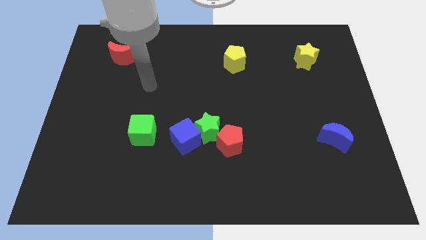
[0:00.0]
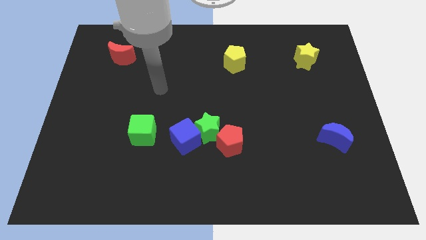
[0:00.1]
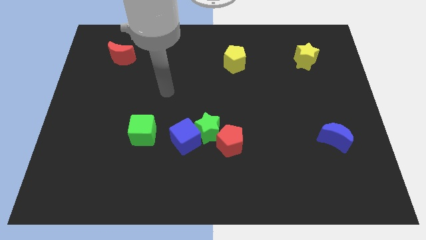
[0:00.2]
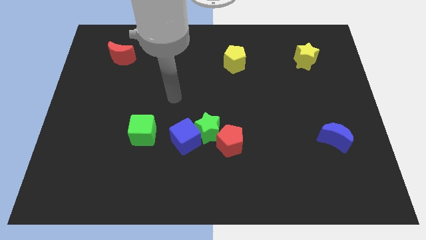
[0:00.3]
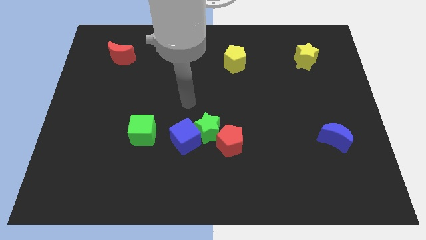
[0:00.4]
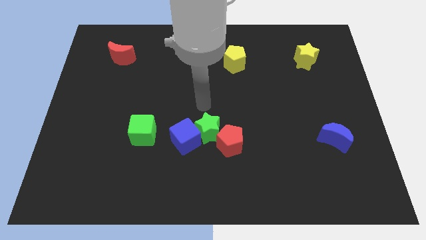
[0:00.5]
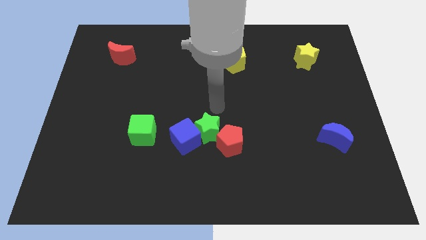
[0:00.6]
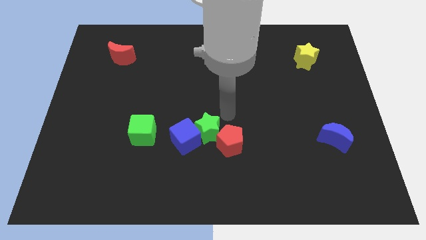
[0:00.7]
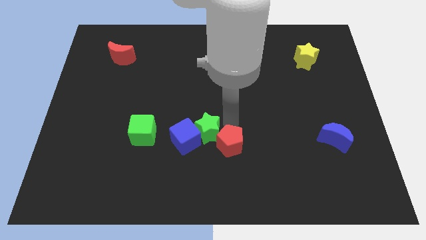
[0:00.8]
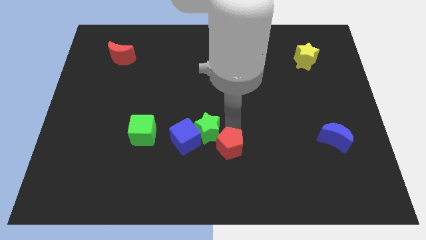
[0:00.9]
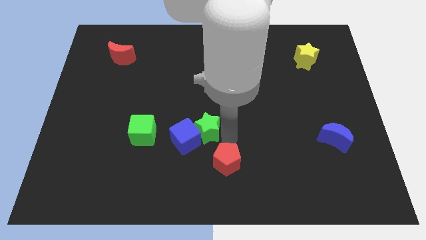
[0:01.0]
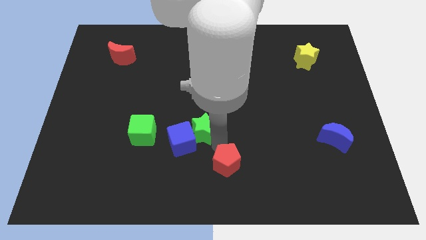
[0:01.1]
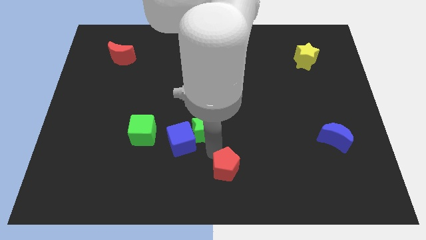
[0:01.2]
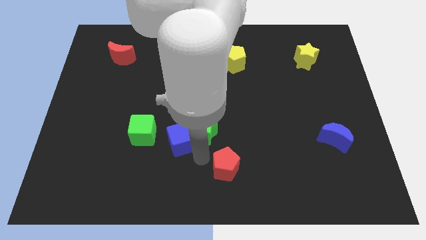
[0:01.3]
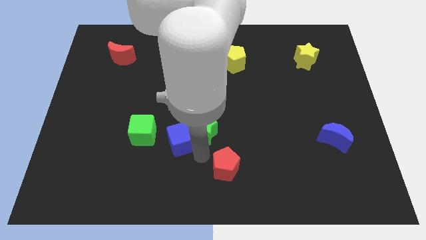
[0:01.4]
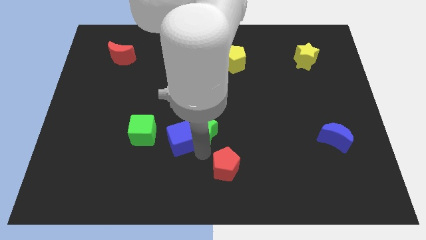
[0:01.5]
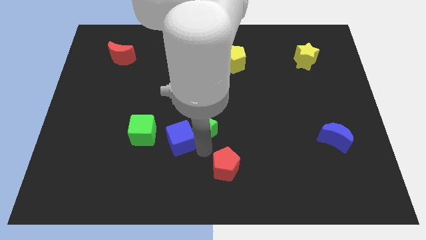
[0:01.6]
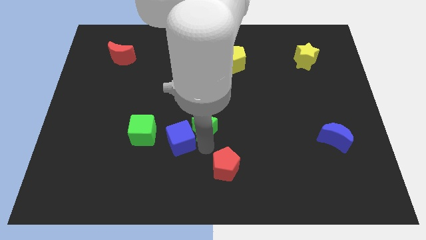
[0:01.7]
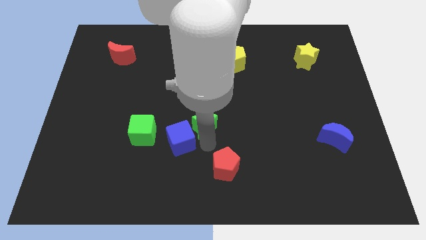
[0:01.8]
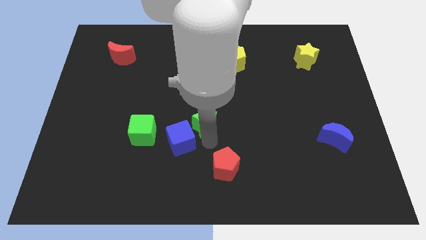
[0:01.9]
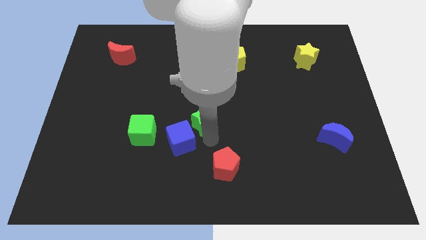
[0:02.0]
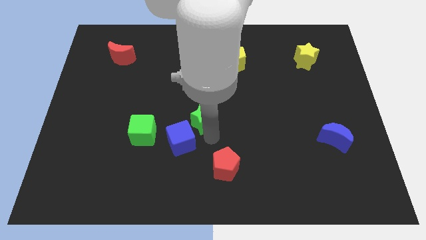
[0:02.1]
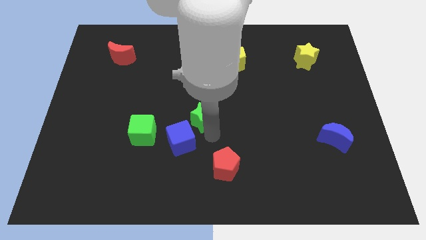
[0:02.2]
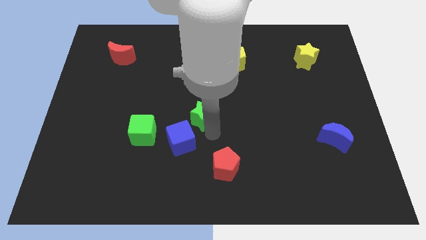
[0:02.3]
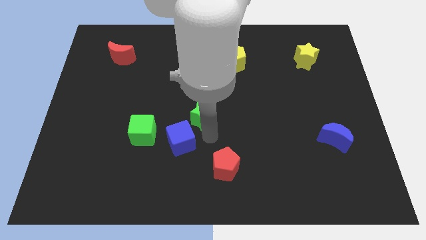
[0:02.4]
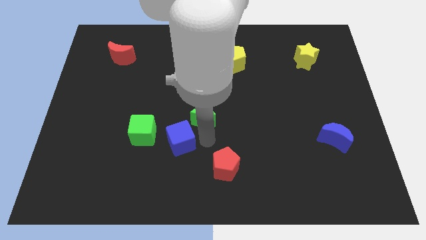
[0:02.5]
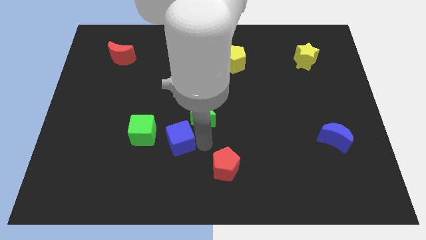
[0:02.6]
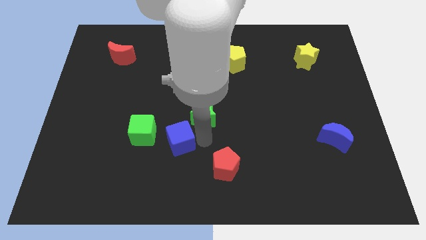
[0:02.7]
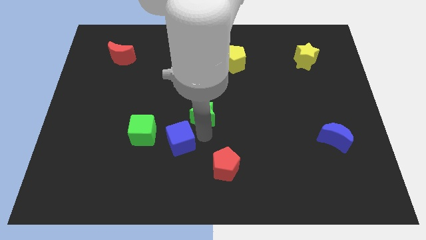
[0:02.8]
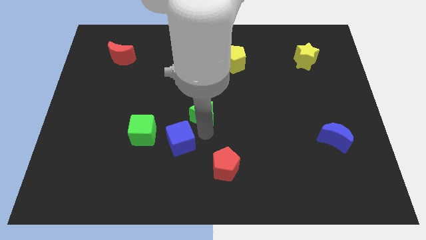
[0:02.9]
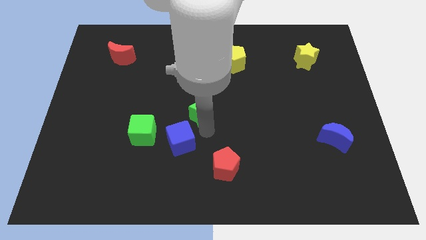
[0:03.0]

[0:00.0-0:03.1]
pull the green star apart from the blue cube and red pentagon

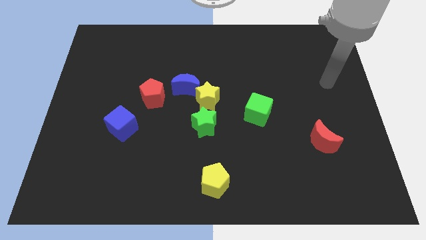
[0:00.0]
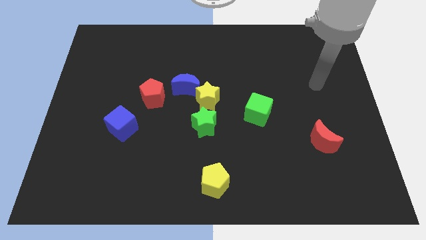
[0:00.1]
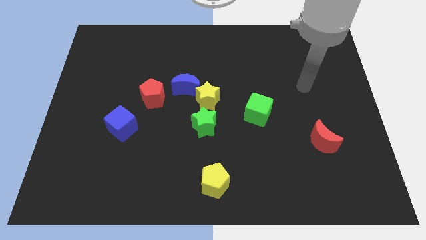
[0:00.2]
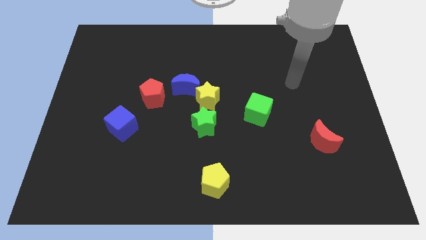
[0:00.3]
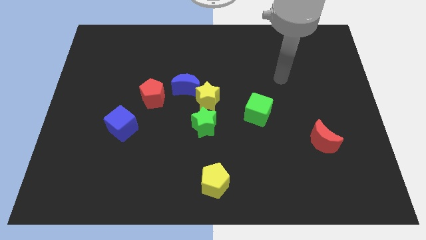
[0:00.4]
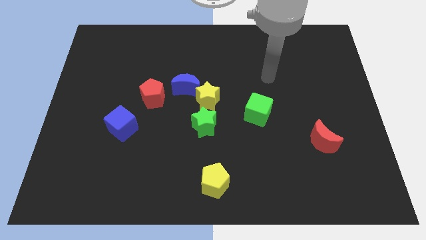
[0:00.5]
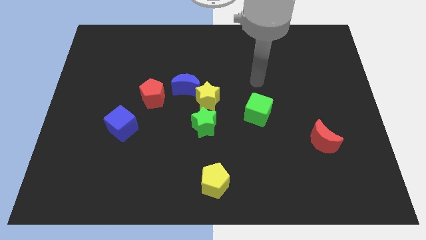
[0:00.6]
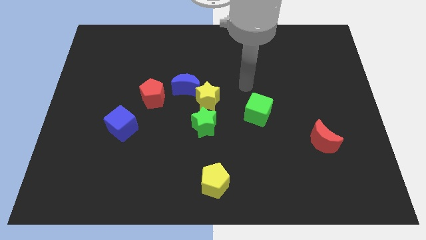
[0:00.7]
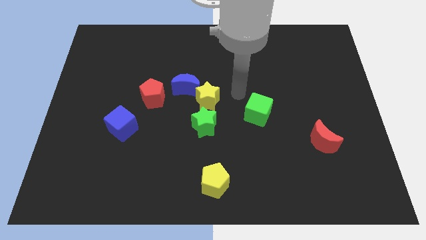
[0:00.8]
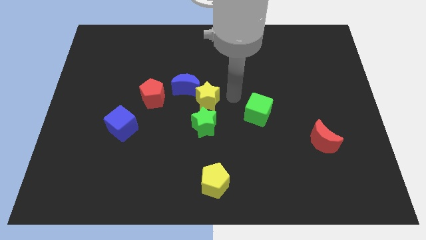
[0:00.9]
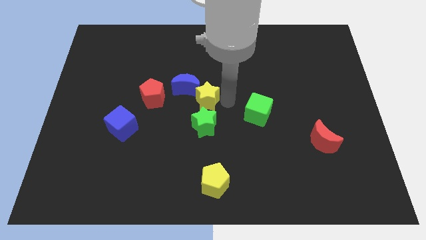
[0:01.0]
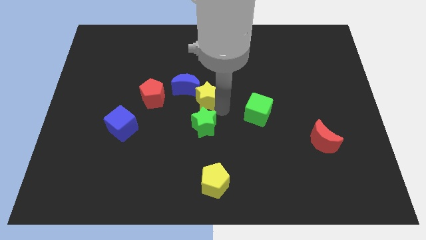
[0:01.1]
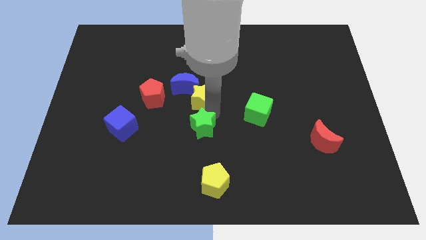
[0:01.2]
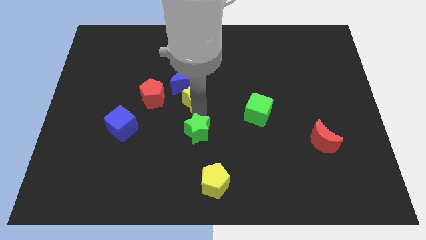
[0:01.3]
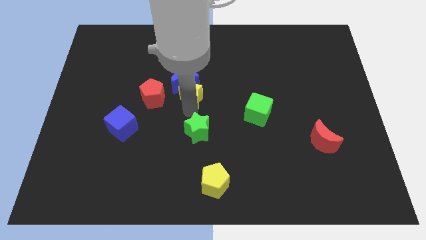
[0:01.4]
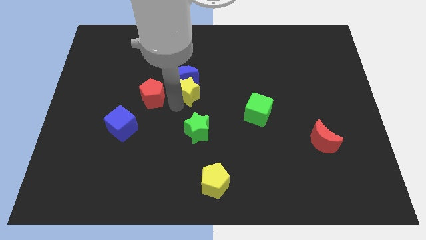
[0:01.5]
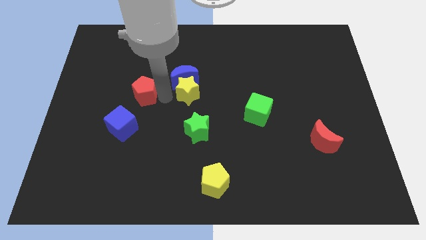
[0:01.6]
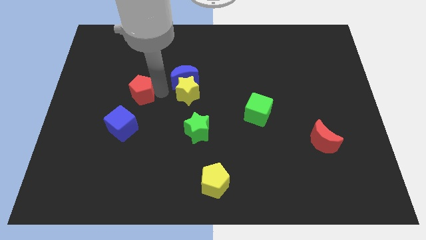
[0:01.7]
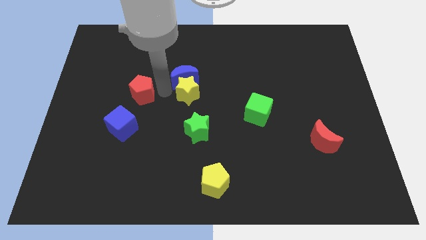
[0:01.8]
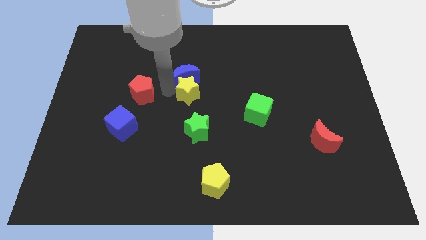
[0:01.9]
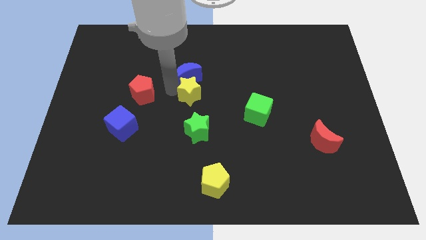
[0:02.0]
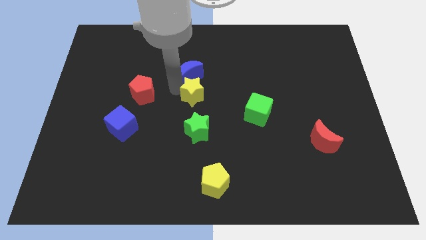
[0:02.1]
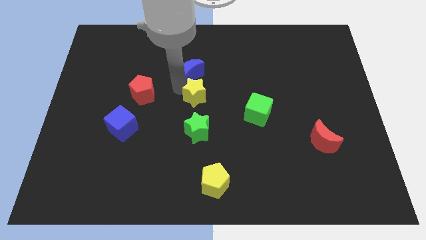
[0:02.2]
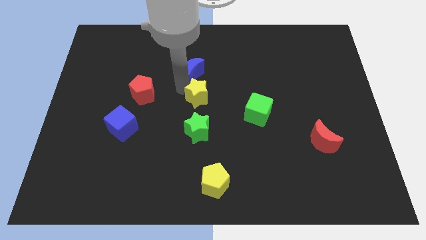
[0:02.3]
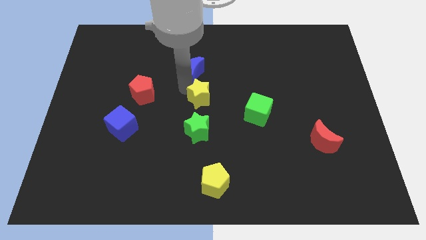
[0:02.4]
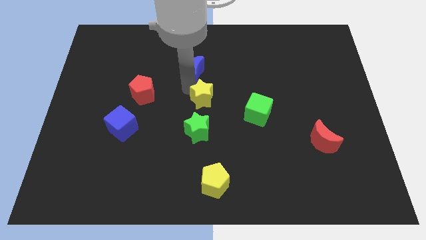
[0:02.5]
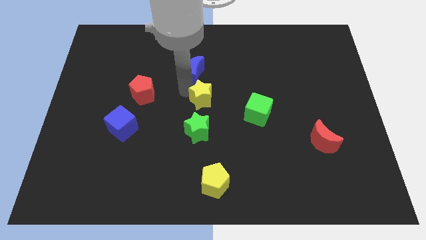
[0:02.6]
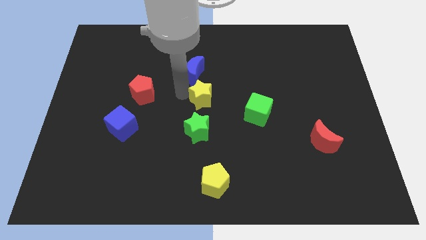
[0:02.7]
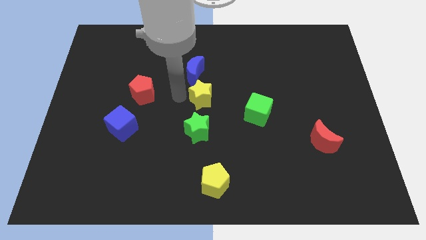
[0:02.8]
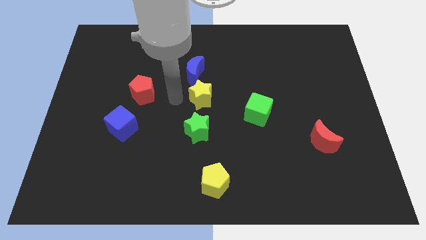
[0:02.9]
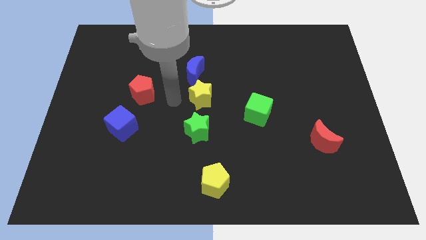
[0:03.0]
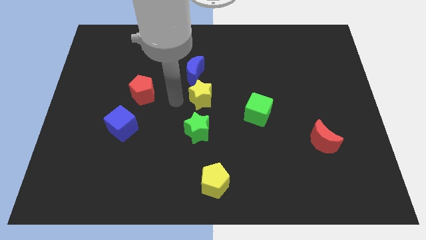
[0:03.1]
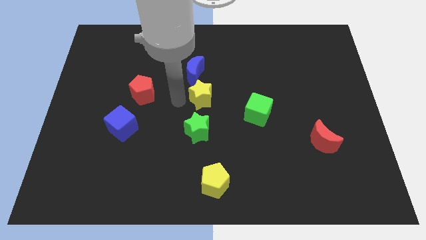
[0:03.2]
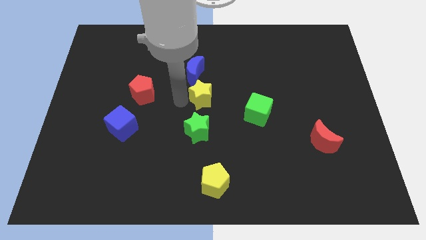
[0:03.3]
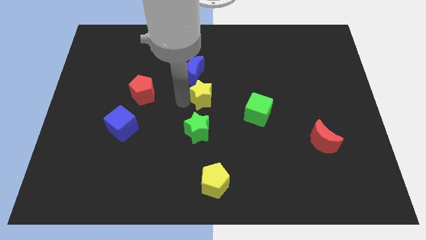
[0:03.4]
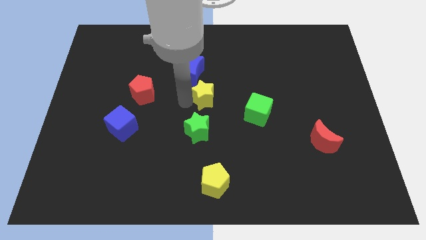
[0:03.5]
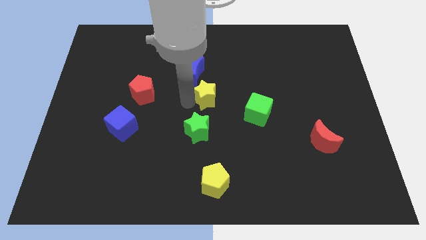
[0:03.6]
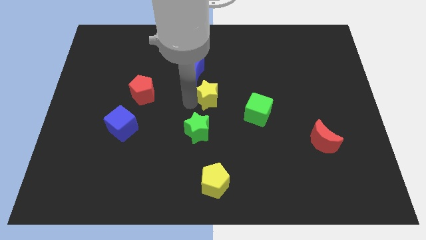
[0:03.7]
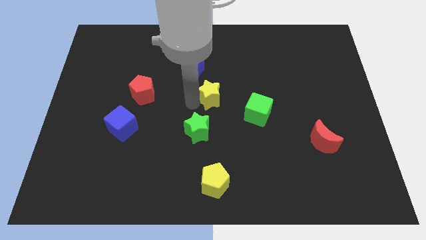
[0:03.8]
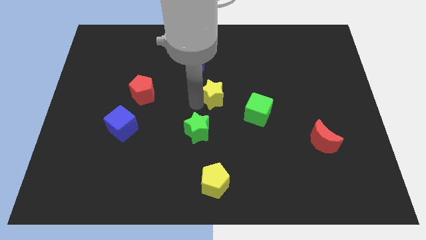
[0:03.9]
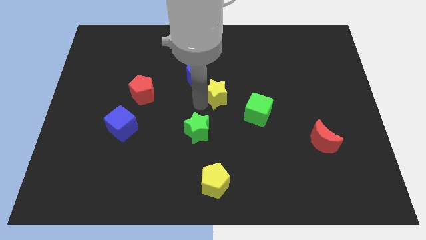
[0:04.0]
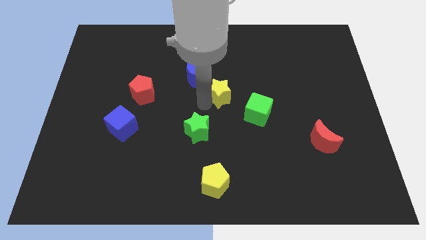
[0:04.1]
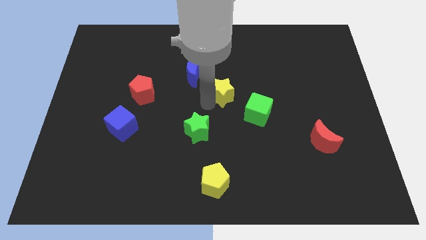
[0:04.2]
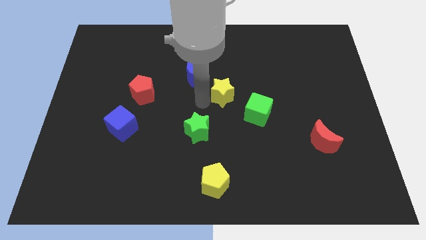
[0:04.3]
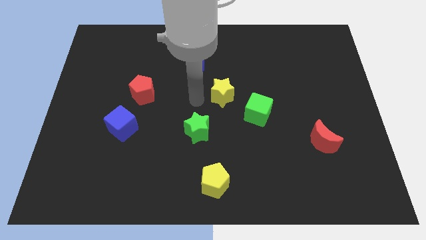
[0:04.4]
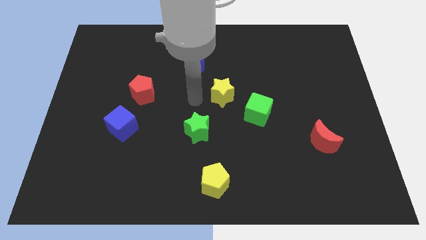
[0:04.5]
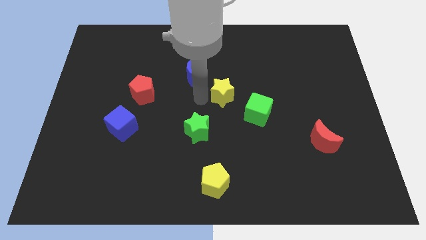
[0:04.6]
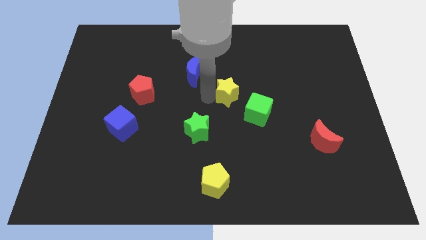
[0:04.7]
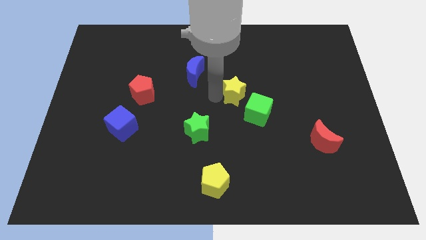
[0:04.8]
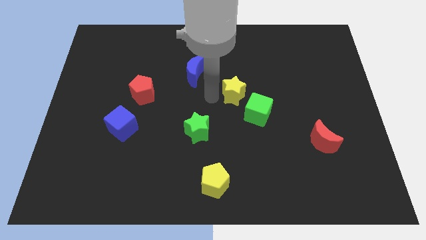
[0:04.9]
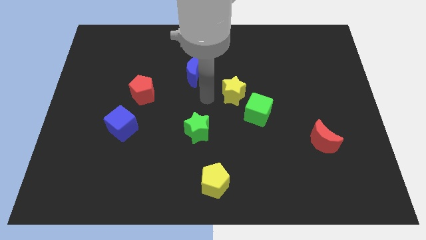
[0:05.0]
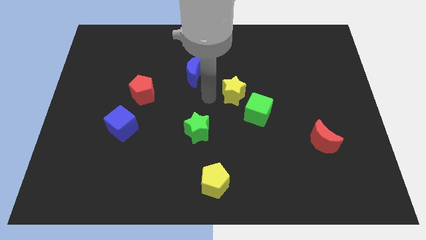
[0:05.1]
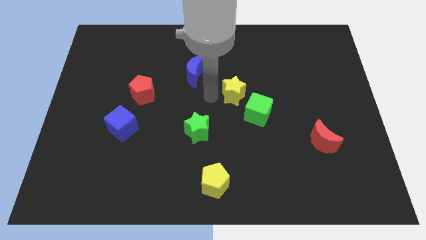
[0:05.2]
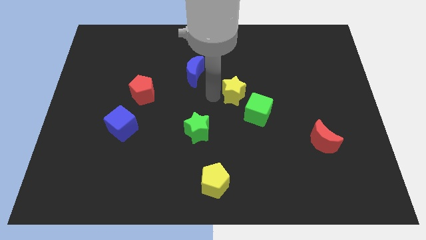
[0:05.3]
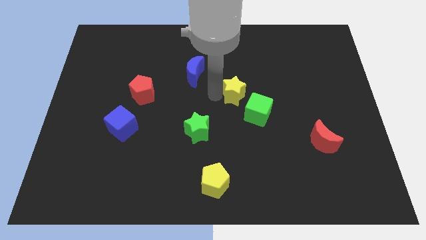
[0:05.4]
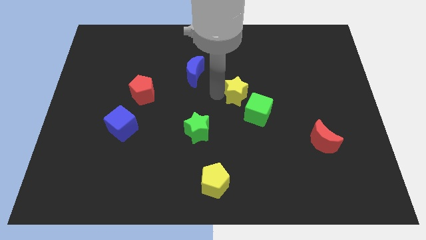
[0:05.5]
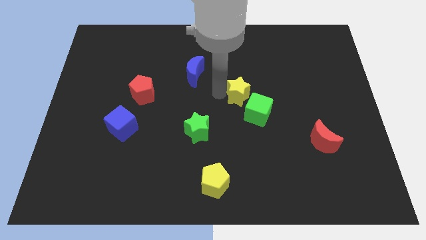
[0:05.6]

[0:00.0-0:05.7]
separate the yellow star from the blue moon and green star

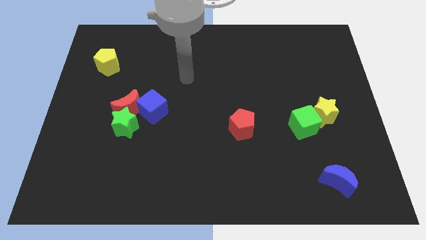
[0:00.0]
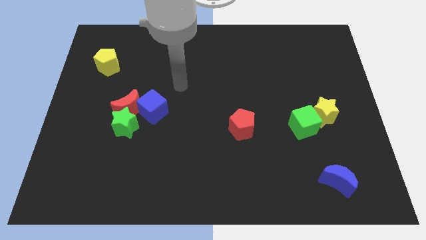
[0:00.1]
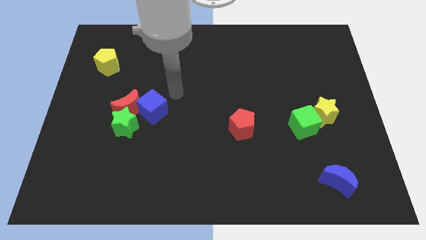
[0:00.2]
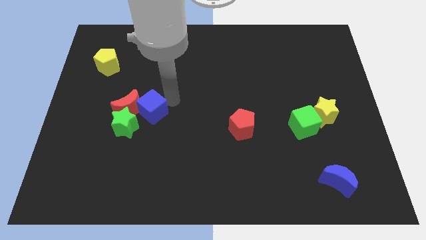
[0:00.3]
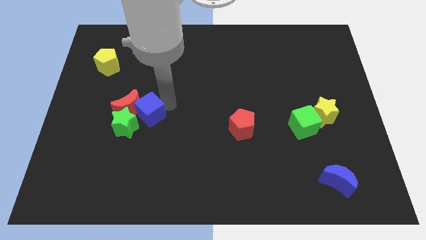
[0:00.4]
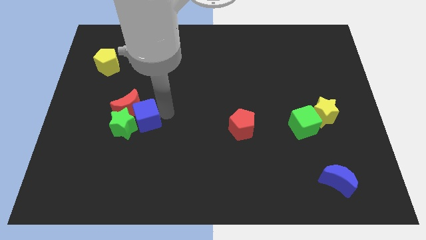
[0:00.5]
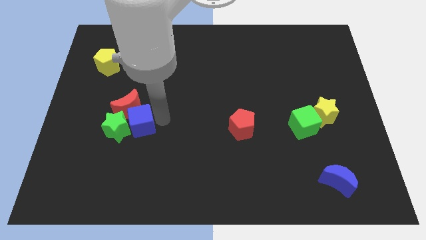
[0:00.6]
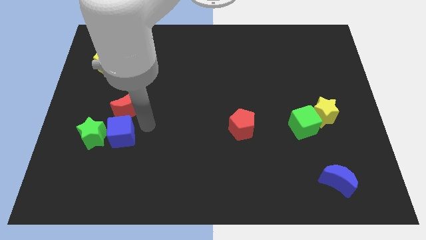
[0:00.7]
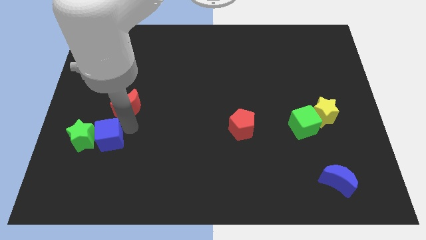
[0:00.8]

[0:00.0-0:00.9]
separate the red moon from the green star and blue cube
